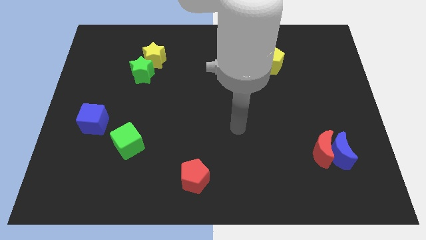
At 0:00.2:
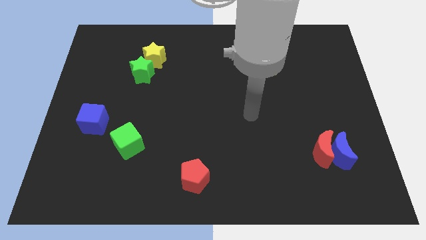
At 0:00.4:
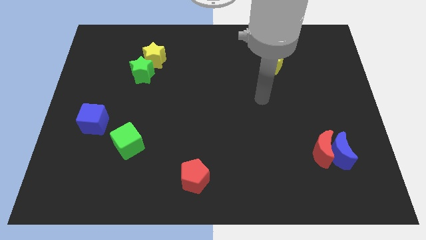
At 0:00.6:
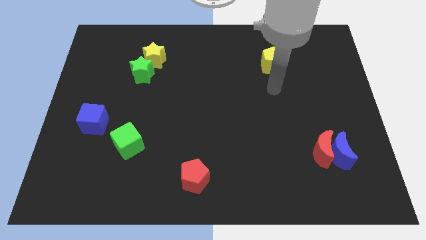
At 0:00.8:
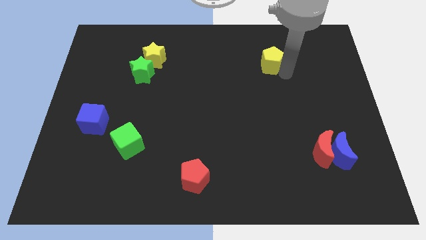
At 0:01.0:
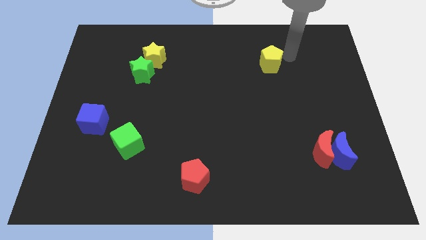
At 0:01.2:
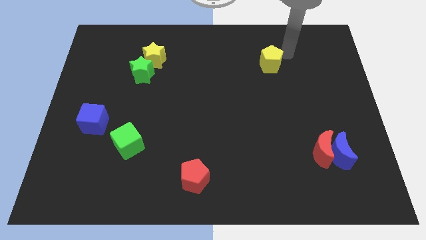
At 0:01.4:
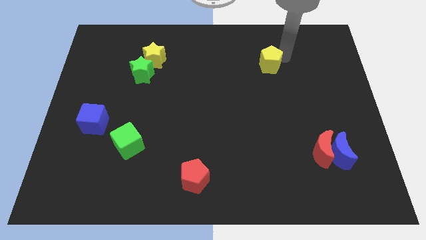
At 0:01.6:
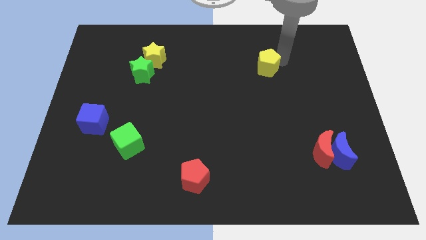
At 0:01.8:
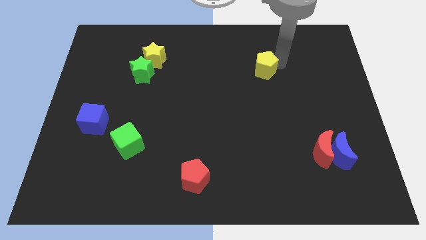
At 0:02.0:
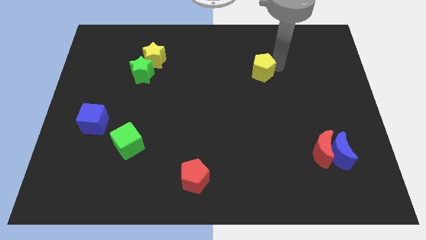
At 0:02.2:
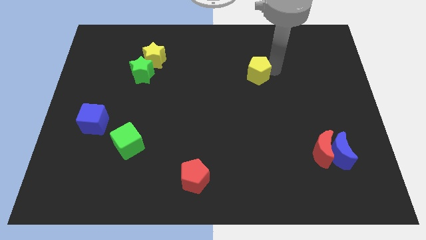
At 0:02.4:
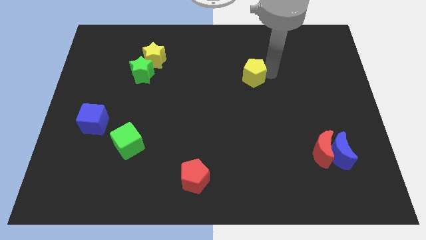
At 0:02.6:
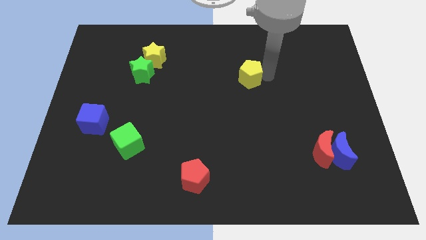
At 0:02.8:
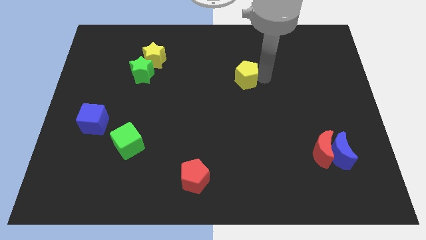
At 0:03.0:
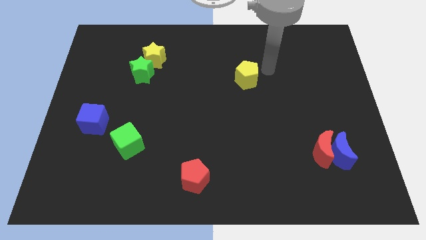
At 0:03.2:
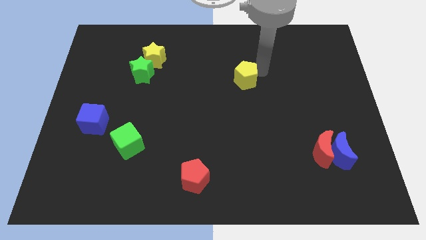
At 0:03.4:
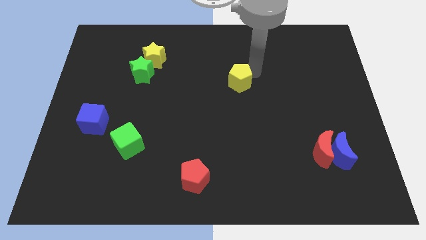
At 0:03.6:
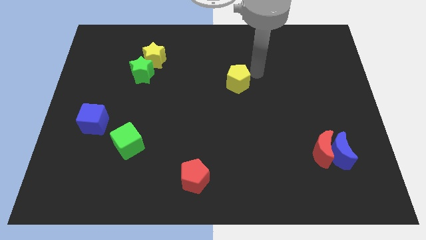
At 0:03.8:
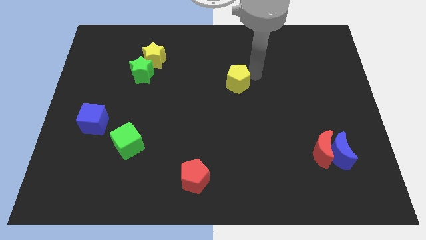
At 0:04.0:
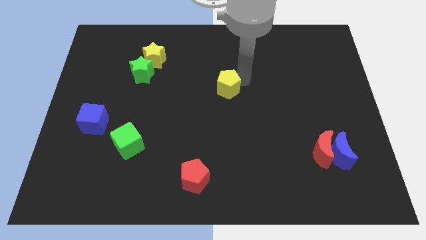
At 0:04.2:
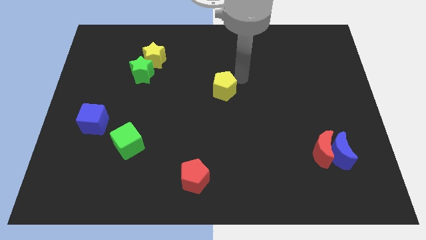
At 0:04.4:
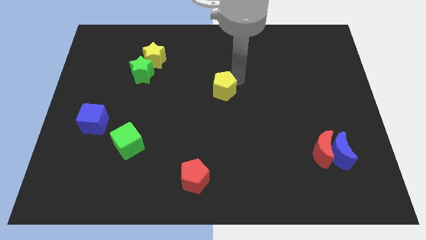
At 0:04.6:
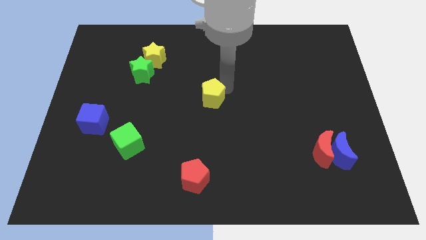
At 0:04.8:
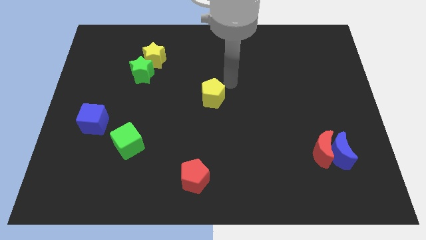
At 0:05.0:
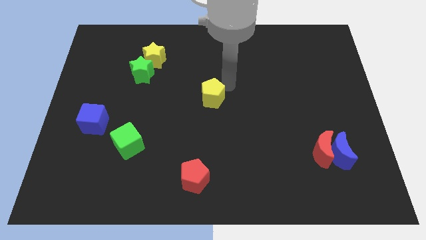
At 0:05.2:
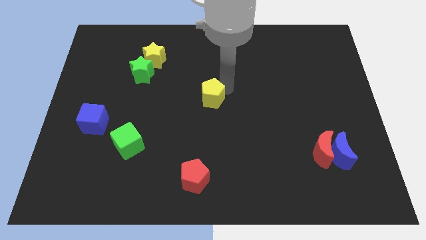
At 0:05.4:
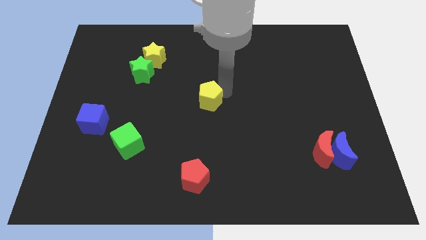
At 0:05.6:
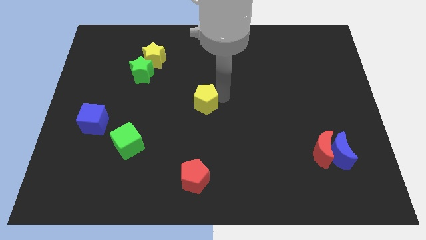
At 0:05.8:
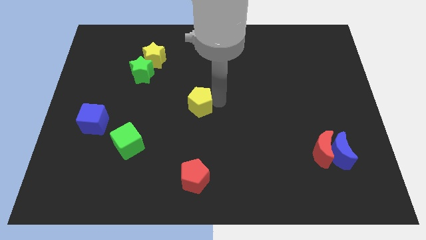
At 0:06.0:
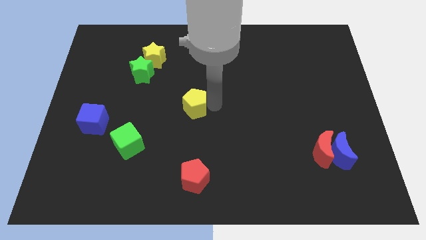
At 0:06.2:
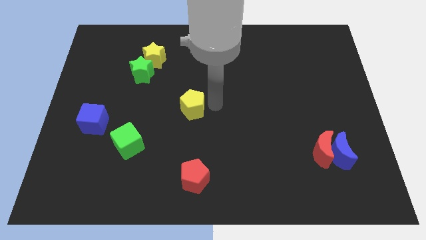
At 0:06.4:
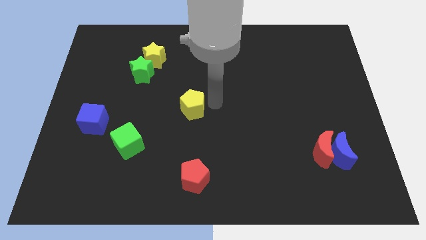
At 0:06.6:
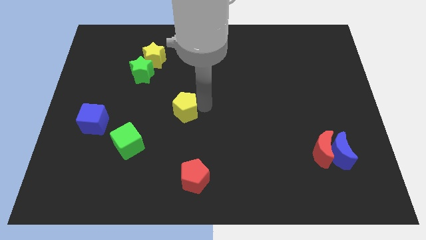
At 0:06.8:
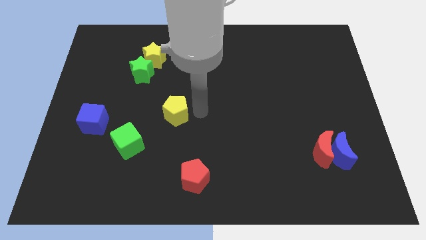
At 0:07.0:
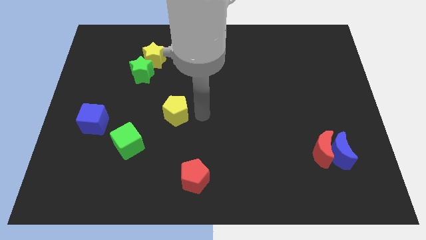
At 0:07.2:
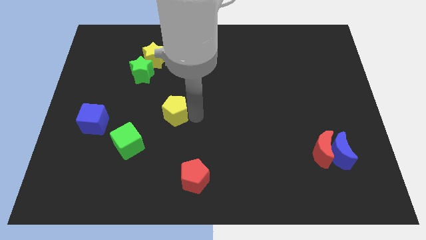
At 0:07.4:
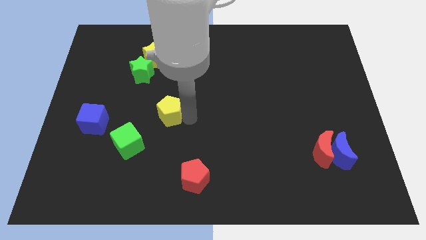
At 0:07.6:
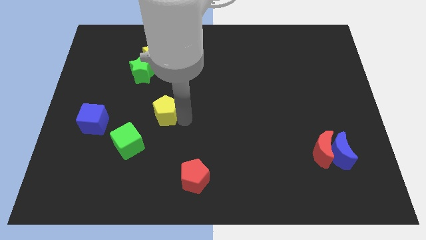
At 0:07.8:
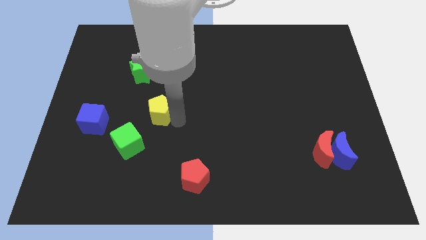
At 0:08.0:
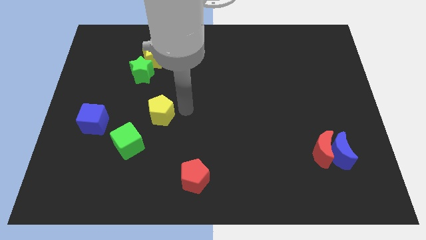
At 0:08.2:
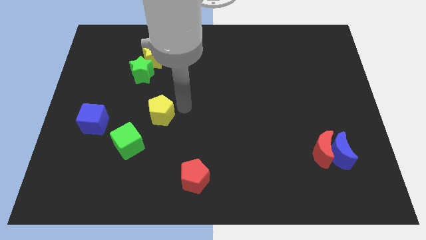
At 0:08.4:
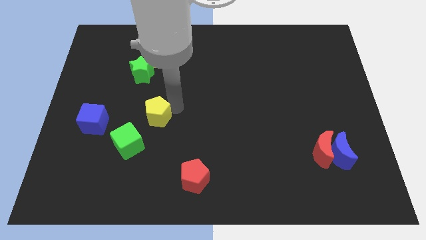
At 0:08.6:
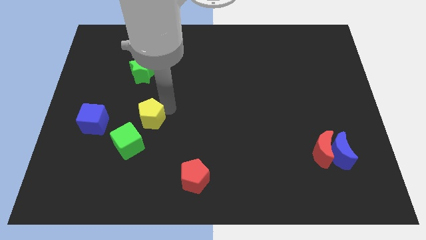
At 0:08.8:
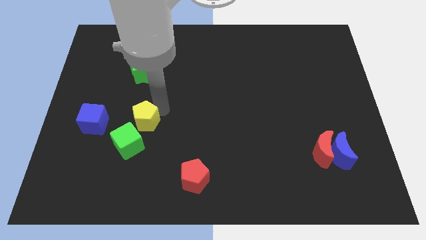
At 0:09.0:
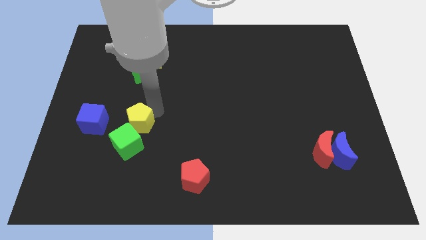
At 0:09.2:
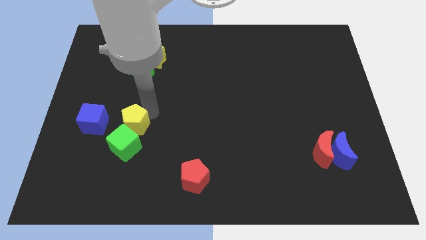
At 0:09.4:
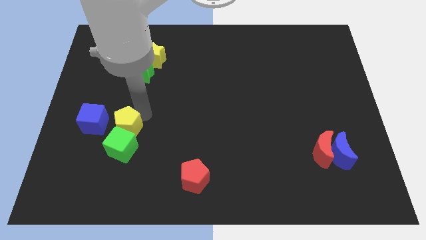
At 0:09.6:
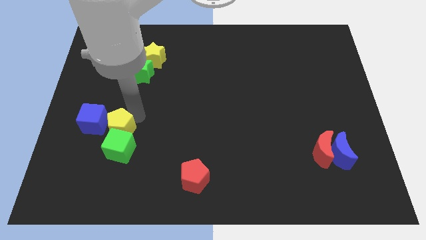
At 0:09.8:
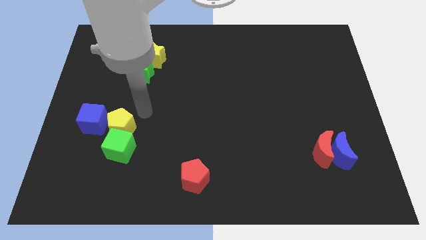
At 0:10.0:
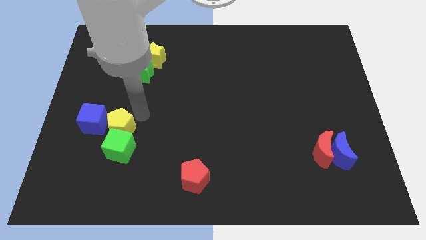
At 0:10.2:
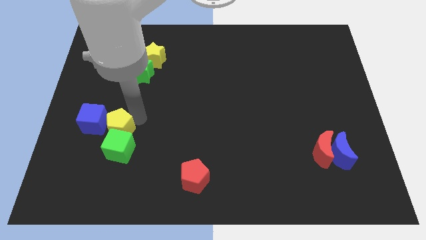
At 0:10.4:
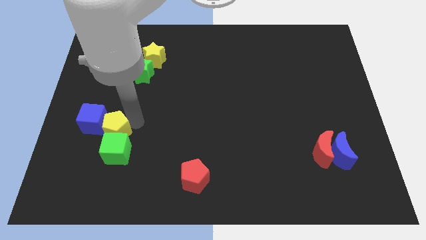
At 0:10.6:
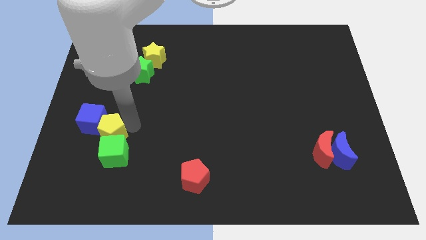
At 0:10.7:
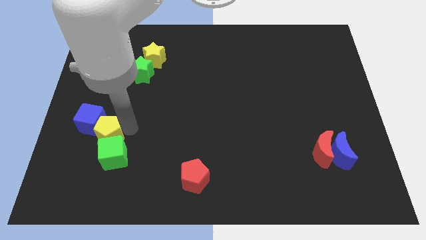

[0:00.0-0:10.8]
move the yellow pentagon below the blue cube

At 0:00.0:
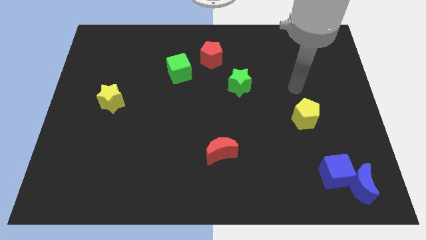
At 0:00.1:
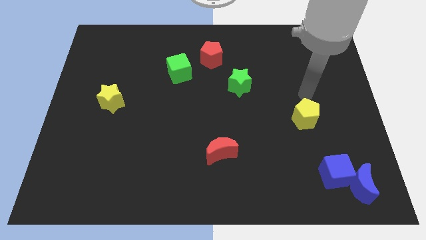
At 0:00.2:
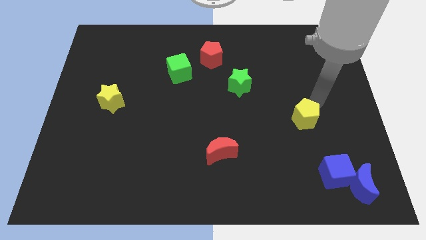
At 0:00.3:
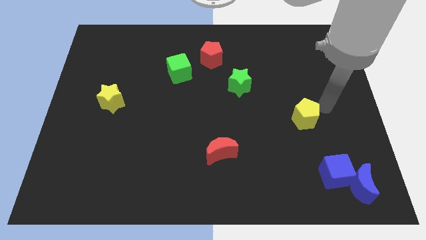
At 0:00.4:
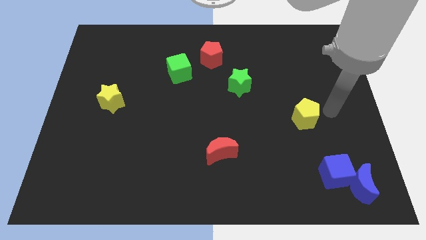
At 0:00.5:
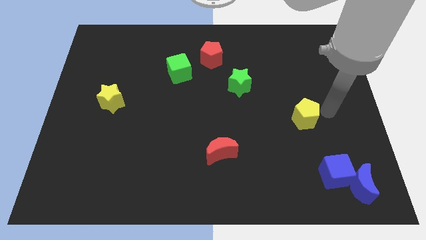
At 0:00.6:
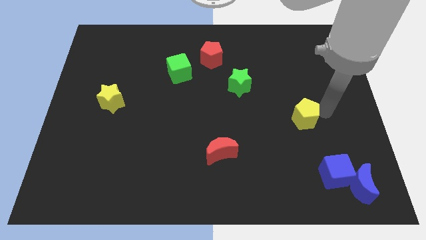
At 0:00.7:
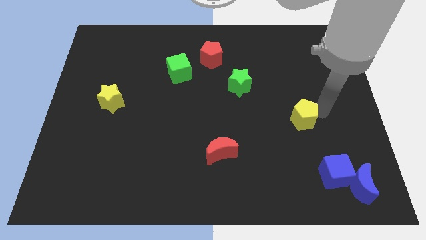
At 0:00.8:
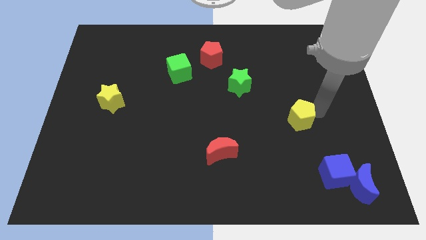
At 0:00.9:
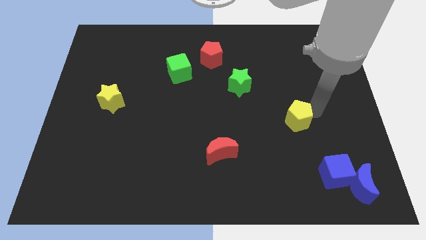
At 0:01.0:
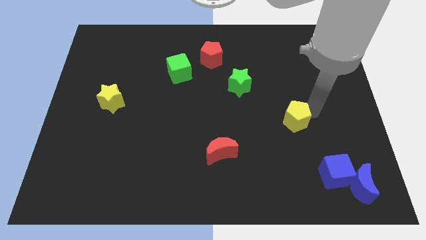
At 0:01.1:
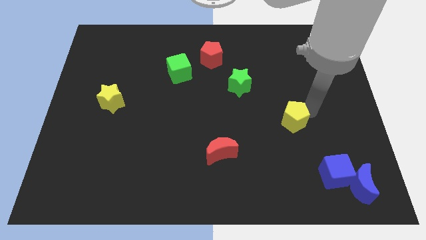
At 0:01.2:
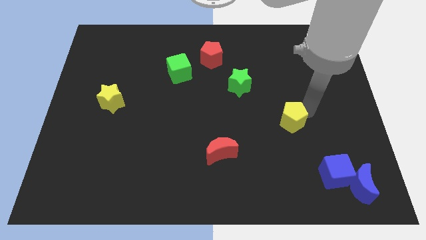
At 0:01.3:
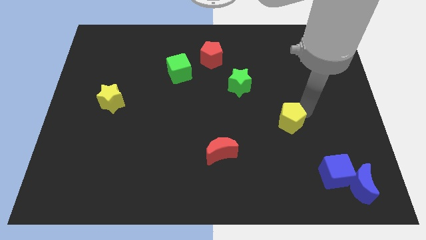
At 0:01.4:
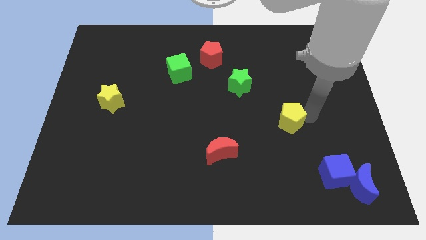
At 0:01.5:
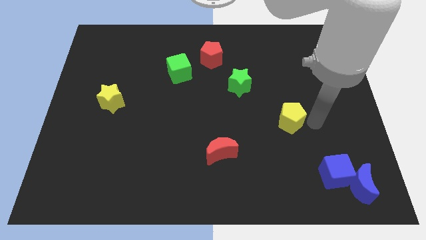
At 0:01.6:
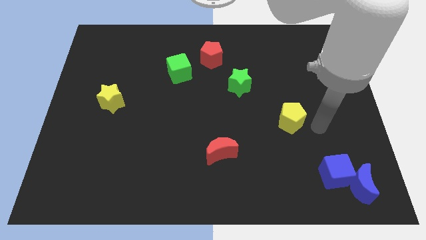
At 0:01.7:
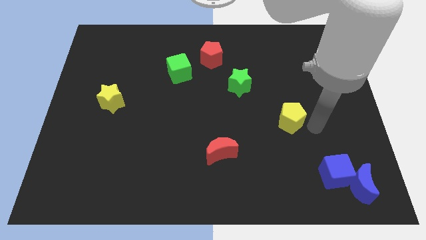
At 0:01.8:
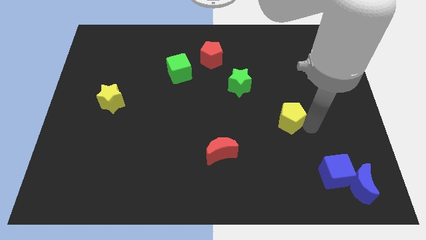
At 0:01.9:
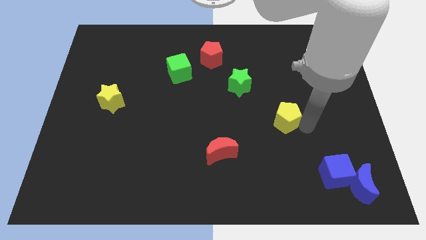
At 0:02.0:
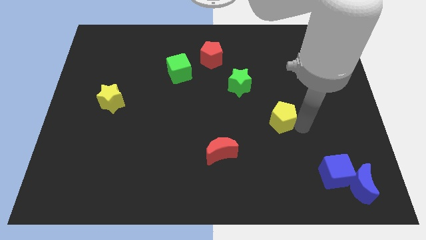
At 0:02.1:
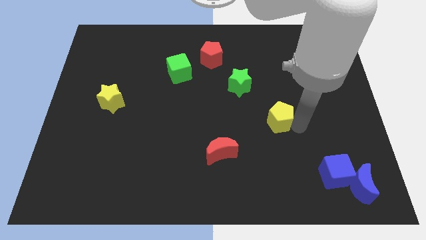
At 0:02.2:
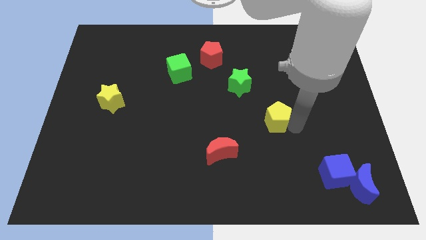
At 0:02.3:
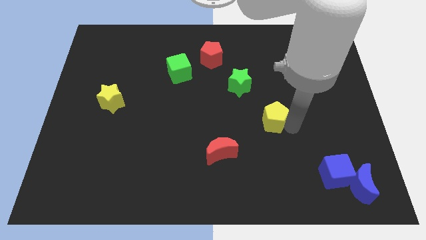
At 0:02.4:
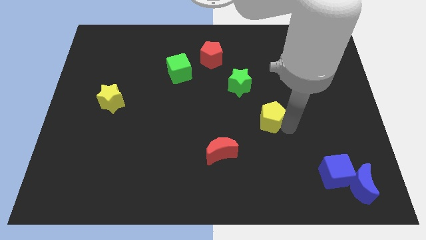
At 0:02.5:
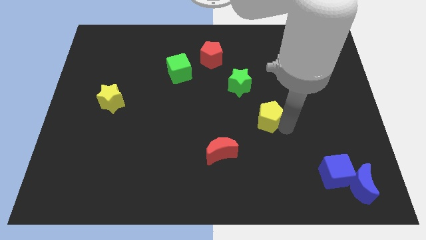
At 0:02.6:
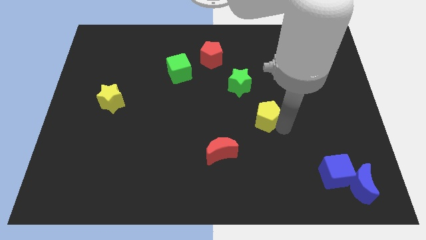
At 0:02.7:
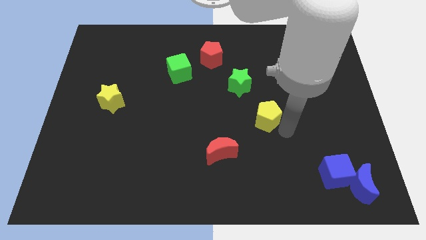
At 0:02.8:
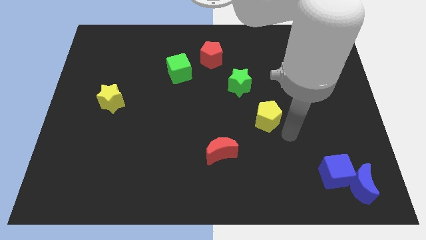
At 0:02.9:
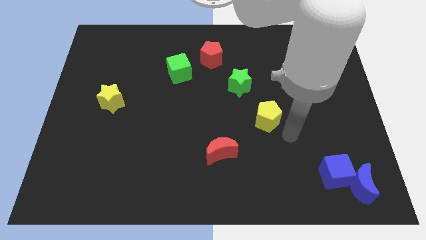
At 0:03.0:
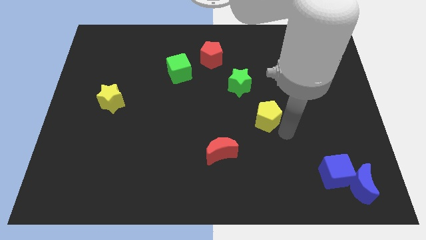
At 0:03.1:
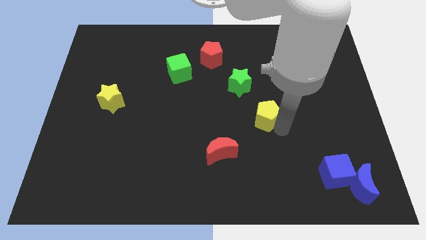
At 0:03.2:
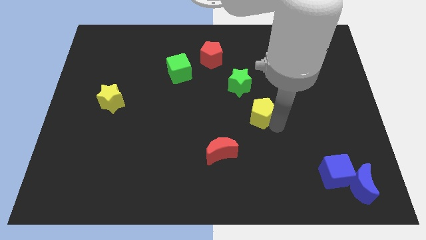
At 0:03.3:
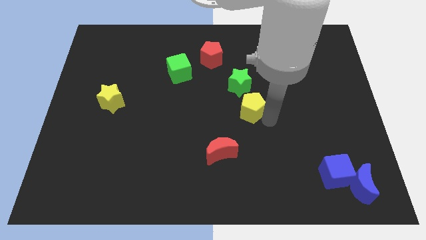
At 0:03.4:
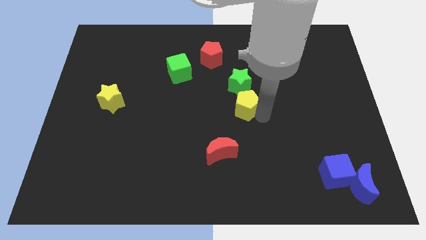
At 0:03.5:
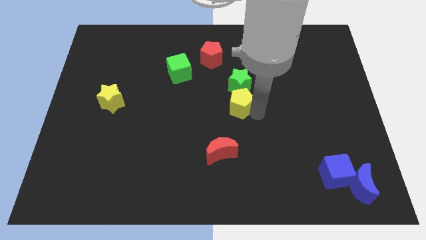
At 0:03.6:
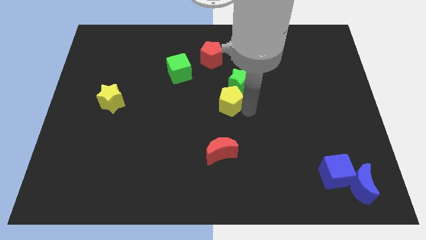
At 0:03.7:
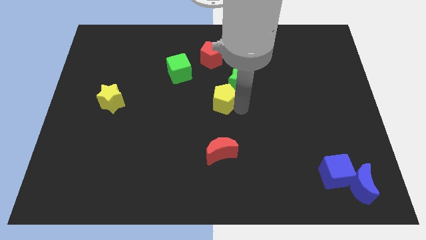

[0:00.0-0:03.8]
move the yellow pentagon to the bottom side of the red pentagon
